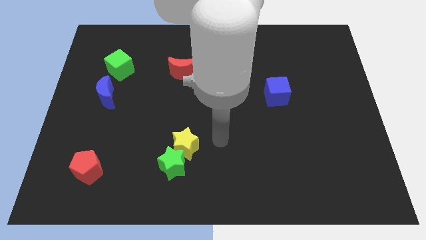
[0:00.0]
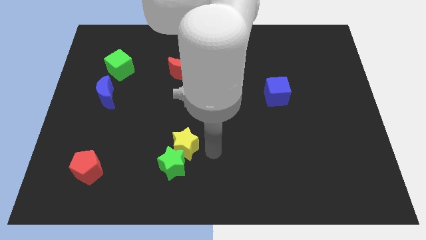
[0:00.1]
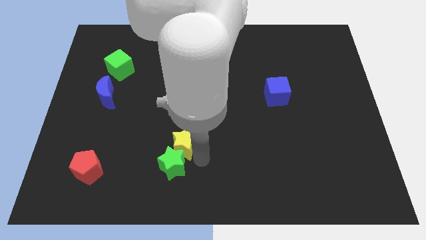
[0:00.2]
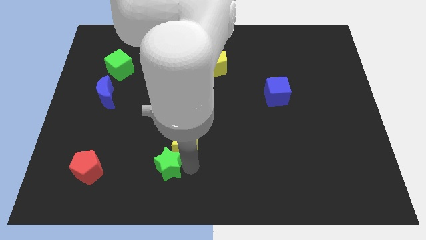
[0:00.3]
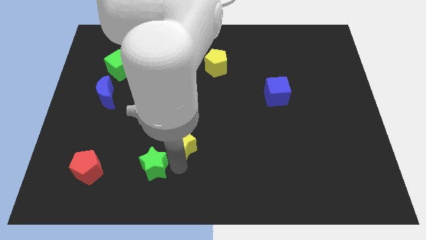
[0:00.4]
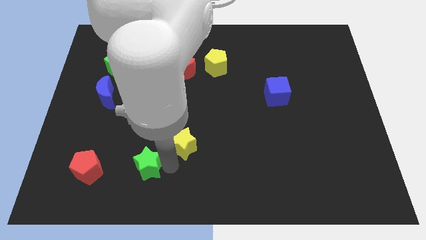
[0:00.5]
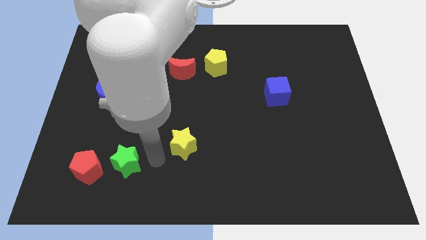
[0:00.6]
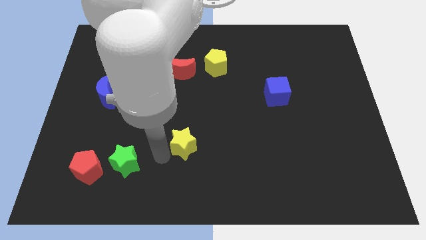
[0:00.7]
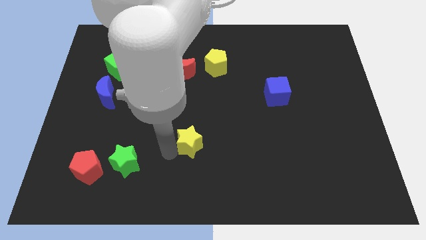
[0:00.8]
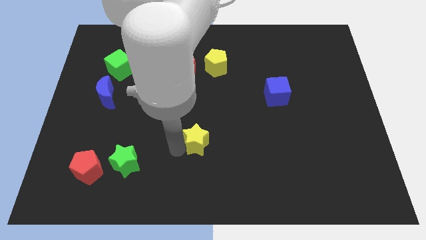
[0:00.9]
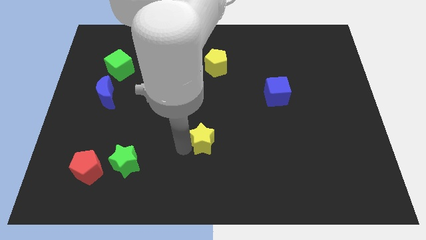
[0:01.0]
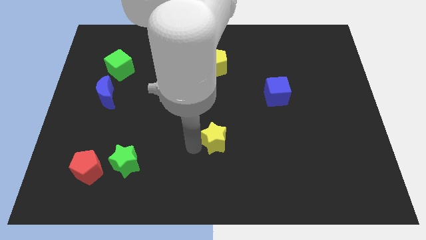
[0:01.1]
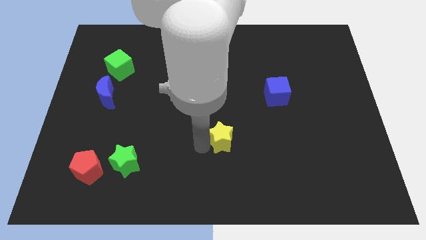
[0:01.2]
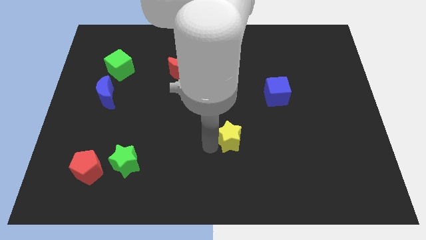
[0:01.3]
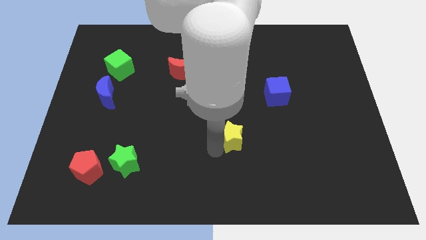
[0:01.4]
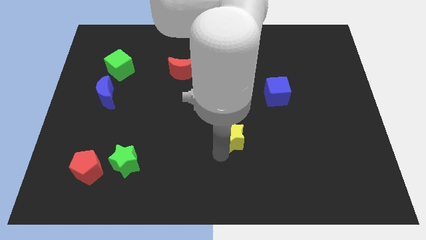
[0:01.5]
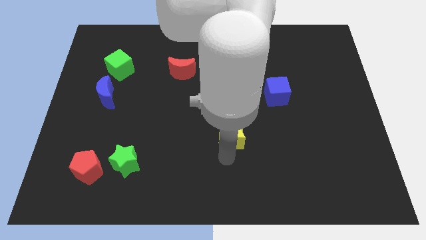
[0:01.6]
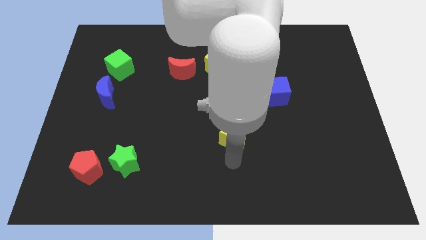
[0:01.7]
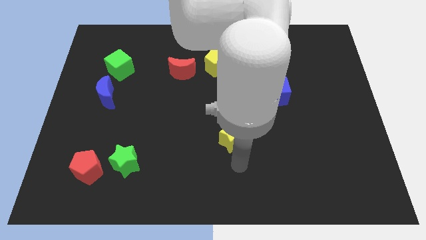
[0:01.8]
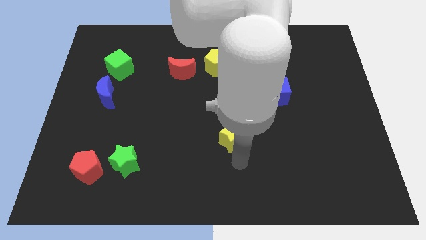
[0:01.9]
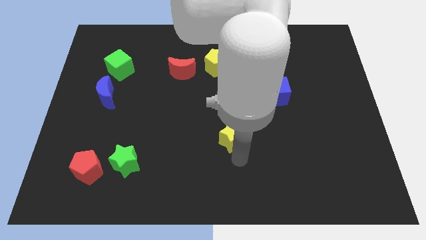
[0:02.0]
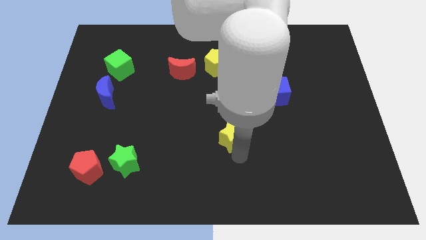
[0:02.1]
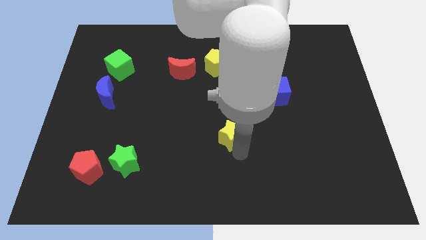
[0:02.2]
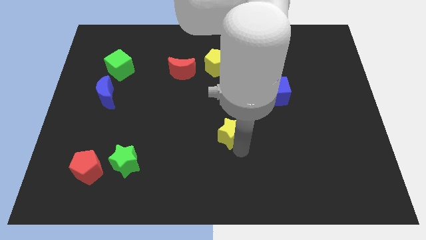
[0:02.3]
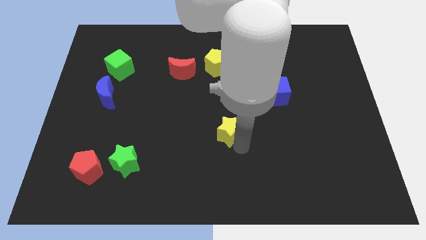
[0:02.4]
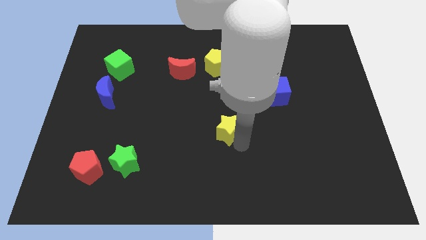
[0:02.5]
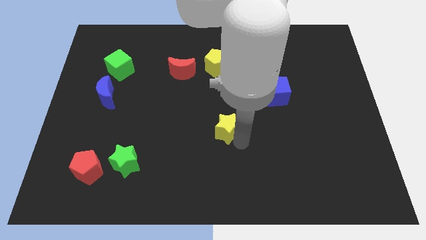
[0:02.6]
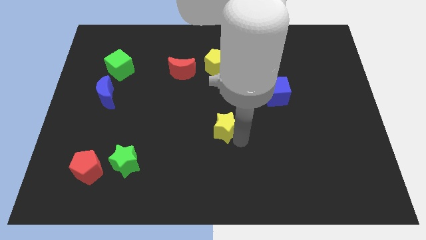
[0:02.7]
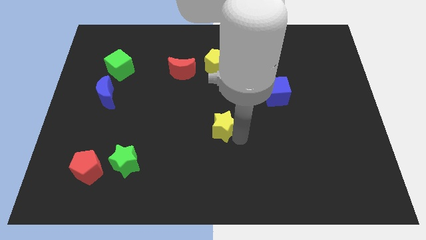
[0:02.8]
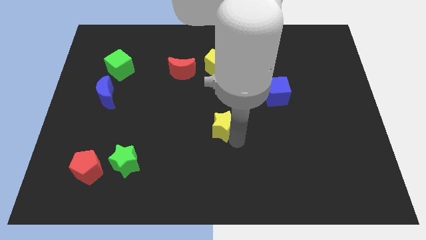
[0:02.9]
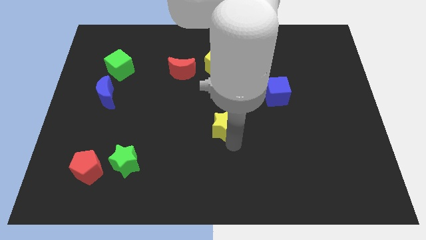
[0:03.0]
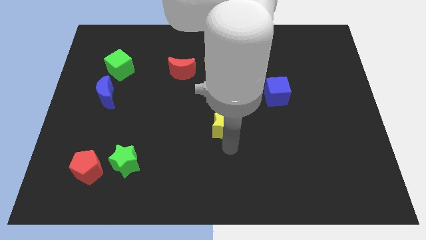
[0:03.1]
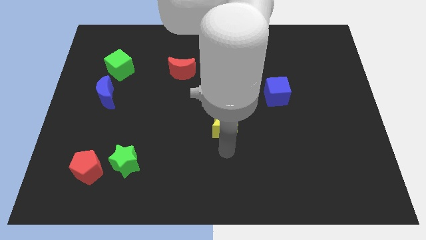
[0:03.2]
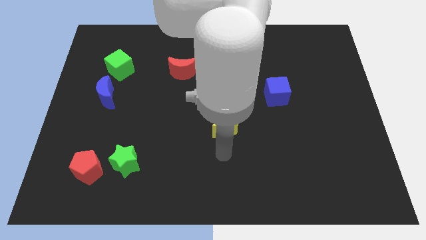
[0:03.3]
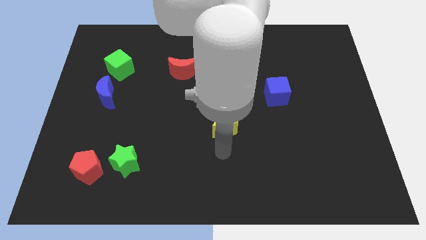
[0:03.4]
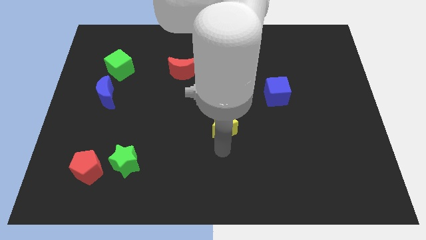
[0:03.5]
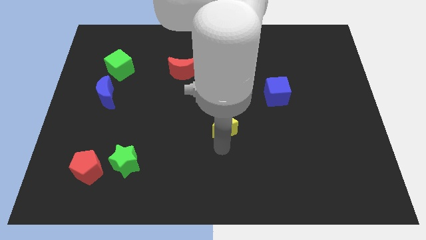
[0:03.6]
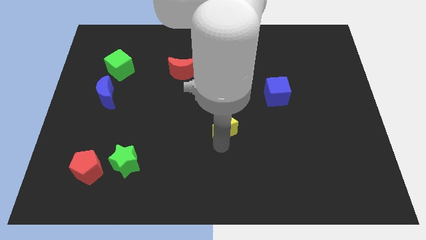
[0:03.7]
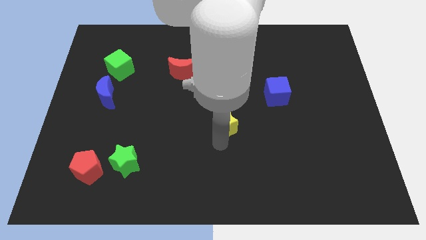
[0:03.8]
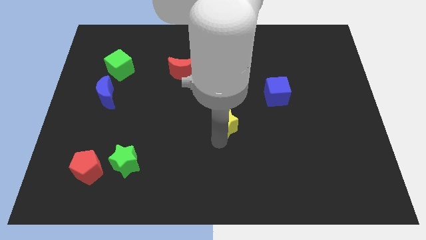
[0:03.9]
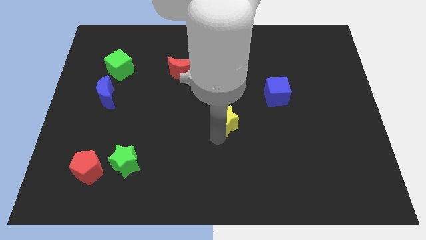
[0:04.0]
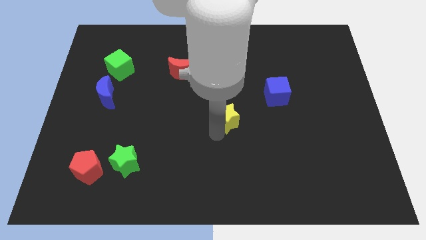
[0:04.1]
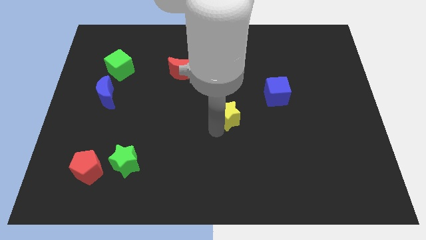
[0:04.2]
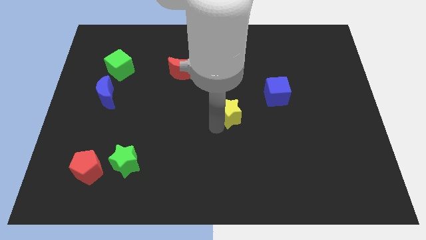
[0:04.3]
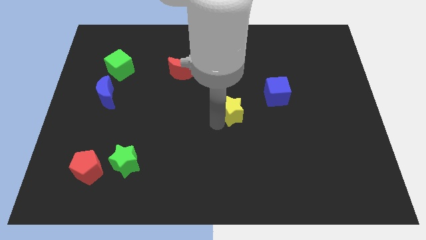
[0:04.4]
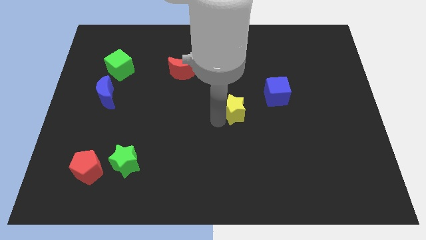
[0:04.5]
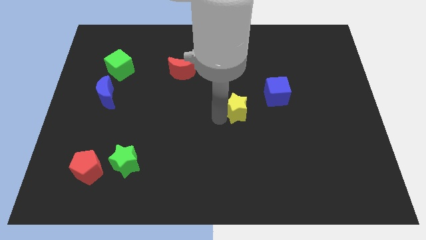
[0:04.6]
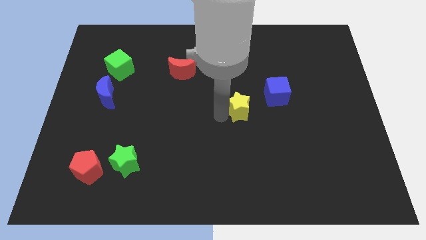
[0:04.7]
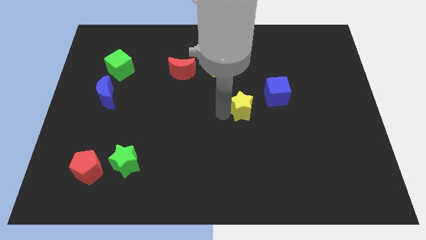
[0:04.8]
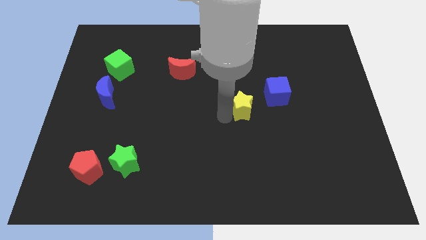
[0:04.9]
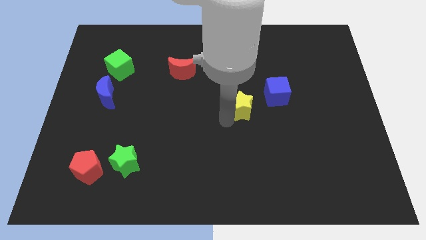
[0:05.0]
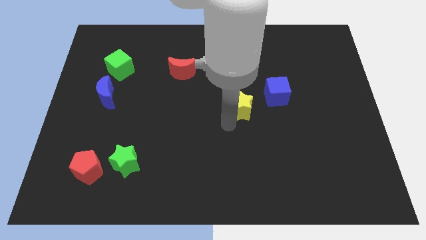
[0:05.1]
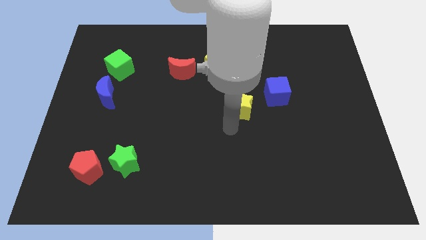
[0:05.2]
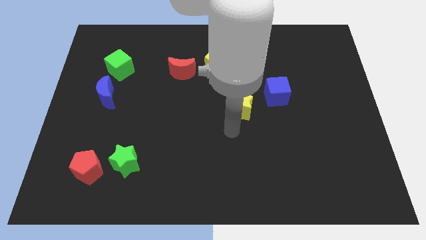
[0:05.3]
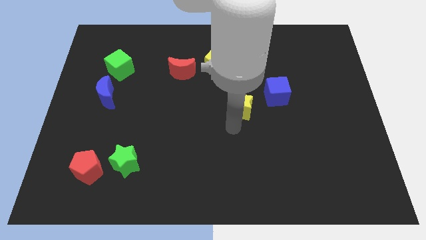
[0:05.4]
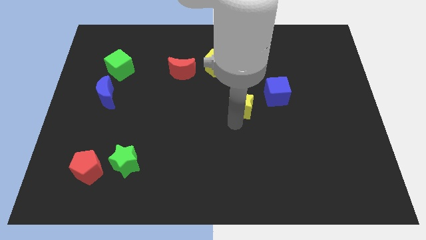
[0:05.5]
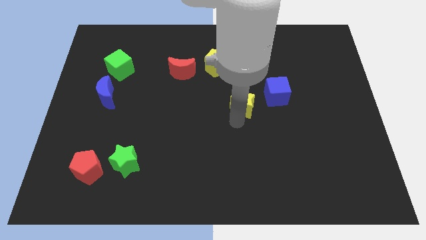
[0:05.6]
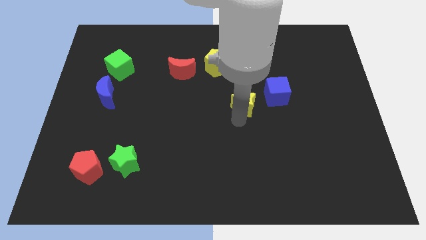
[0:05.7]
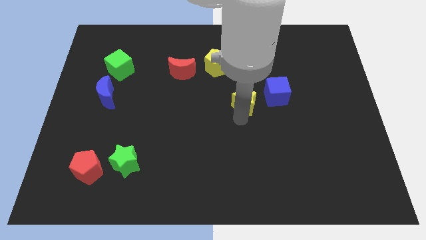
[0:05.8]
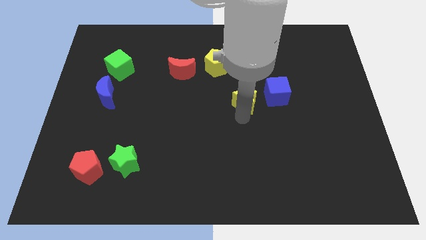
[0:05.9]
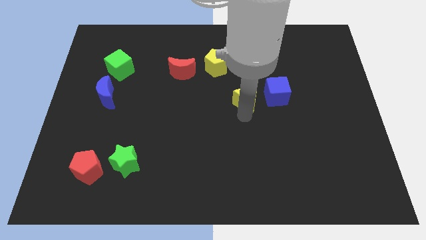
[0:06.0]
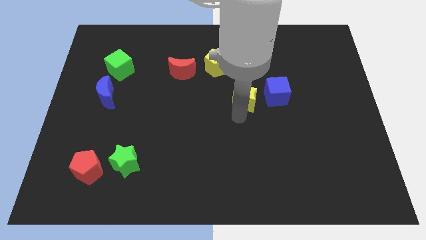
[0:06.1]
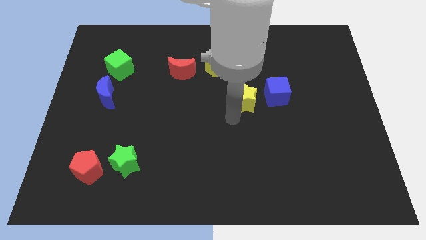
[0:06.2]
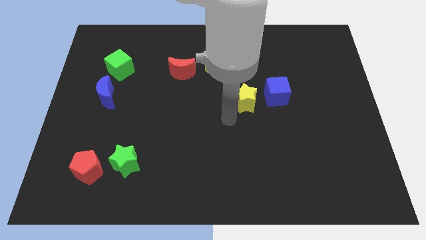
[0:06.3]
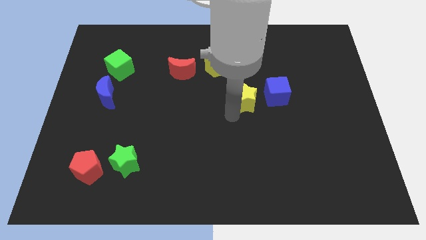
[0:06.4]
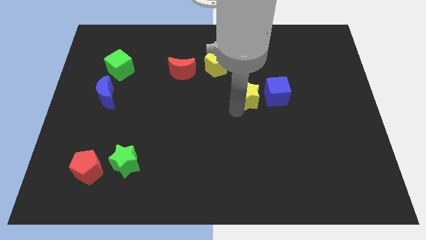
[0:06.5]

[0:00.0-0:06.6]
slide the yellow star diagonally up and right

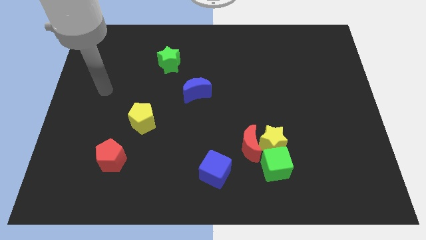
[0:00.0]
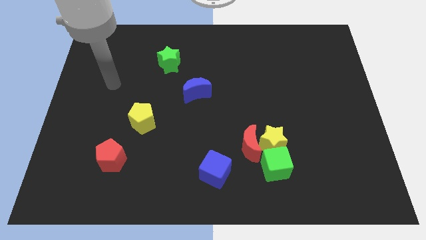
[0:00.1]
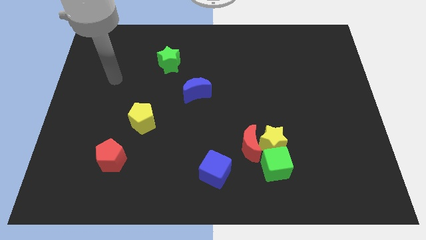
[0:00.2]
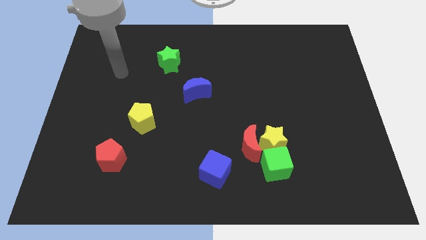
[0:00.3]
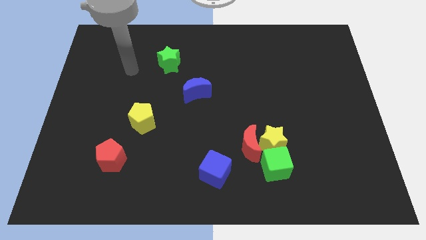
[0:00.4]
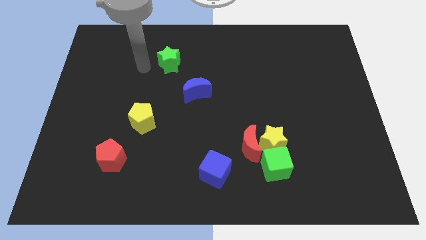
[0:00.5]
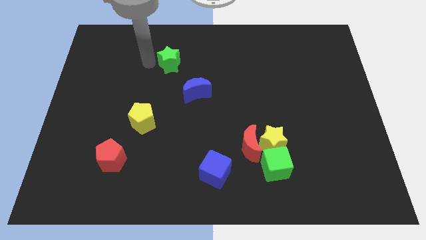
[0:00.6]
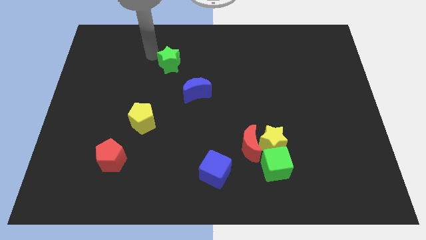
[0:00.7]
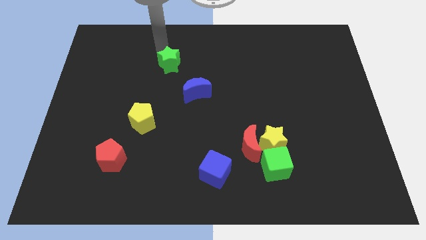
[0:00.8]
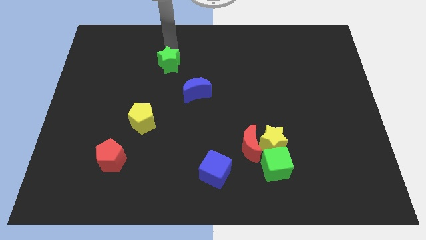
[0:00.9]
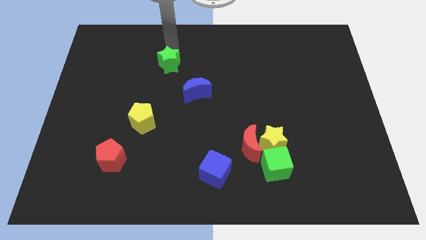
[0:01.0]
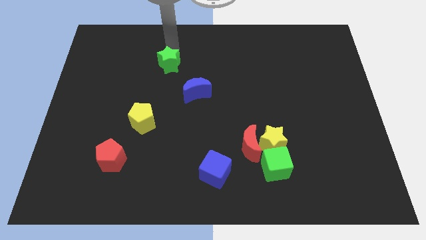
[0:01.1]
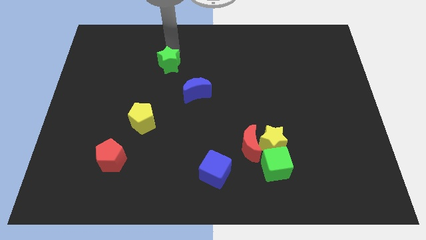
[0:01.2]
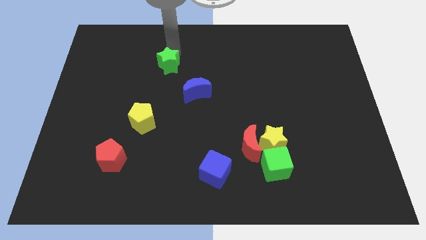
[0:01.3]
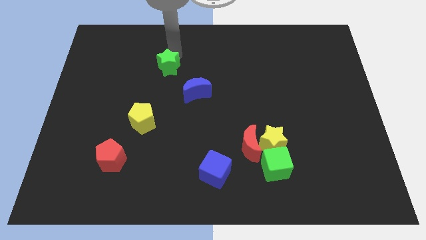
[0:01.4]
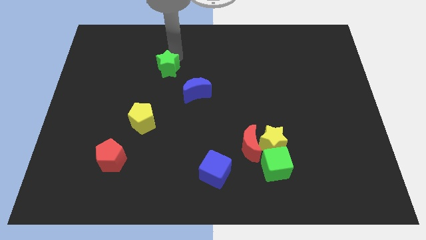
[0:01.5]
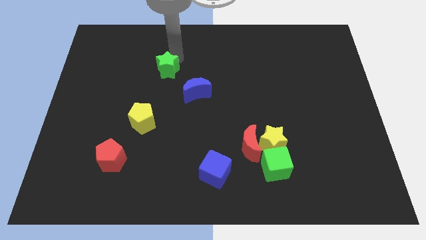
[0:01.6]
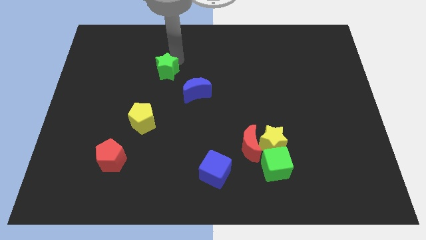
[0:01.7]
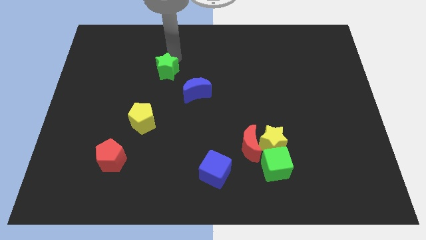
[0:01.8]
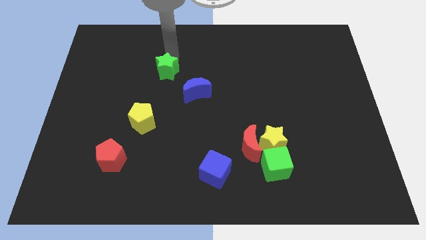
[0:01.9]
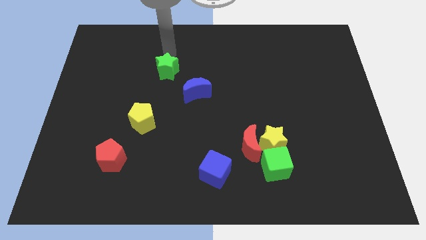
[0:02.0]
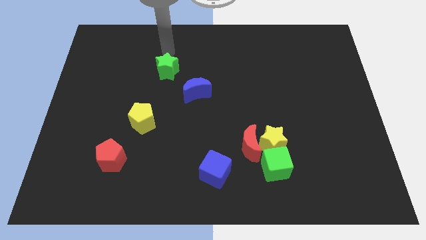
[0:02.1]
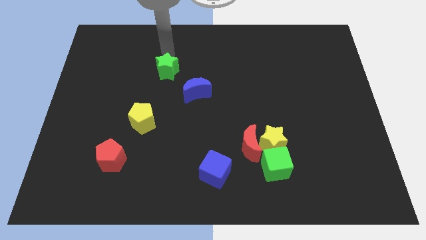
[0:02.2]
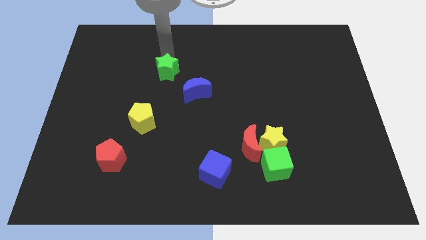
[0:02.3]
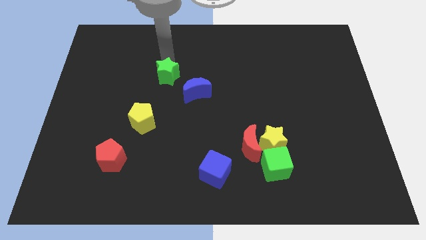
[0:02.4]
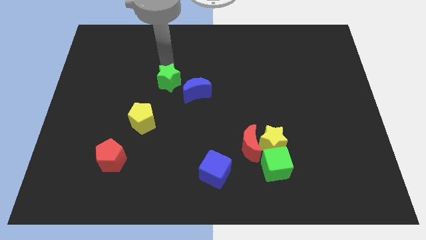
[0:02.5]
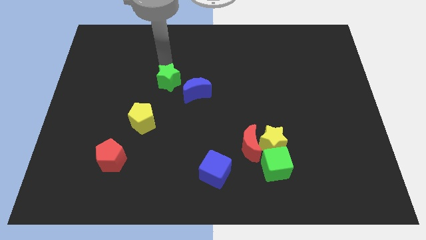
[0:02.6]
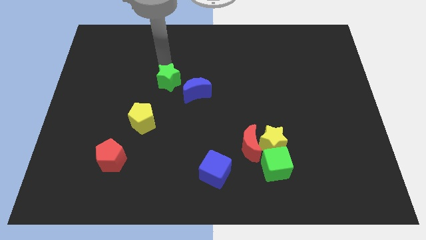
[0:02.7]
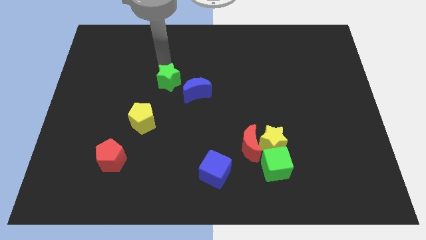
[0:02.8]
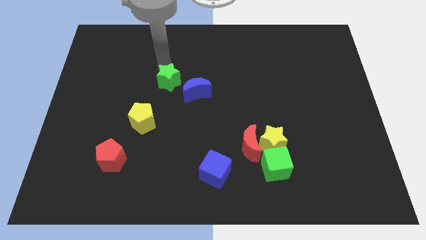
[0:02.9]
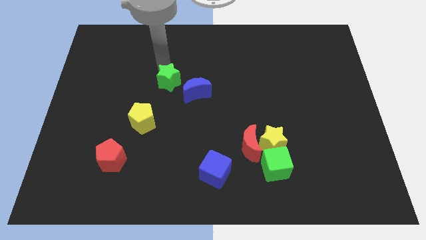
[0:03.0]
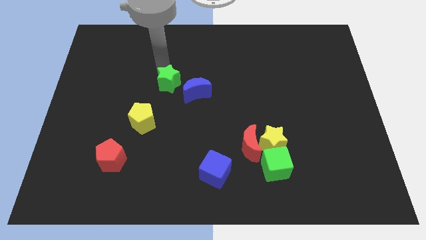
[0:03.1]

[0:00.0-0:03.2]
push the green star down a bit
